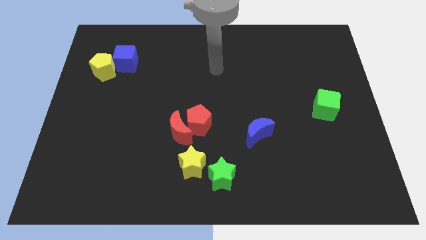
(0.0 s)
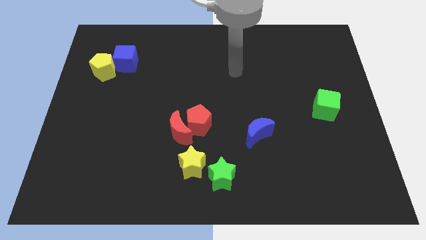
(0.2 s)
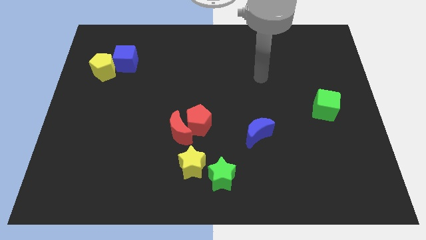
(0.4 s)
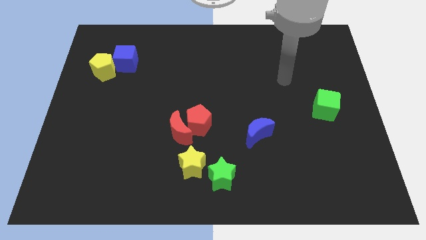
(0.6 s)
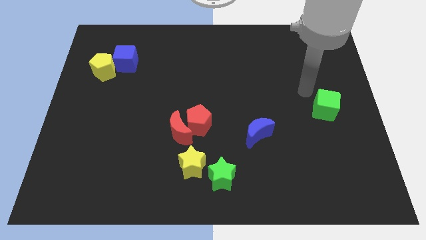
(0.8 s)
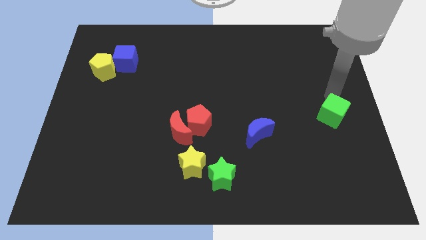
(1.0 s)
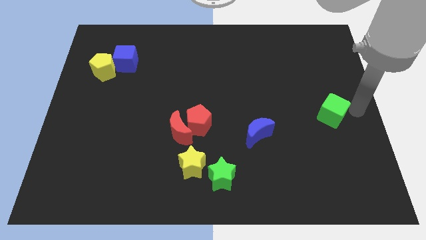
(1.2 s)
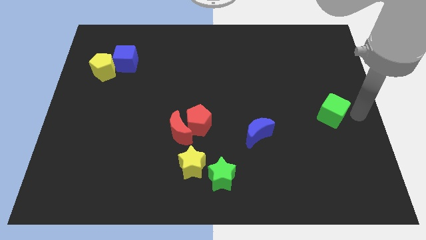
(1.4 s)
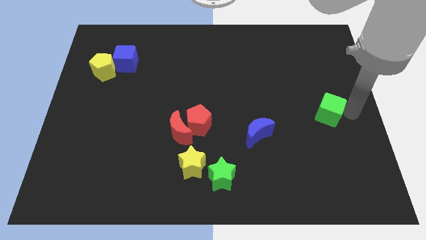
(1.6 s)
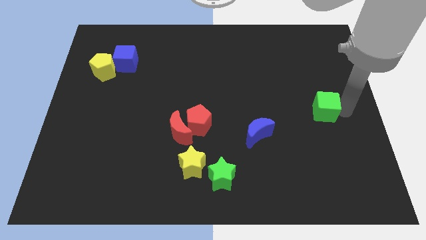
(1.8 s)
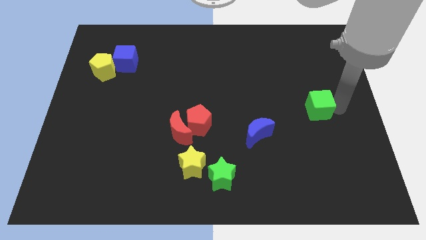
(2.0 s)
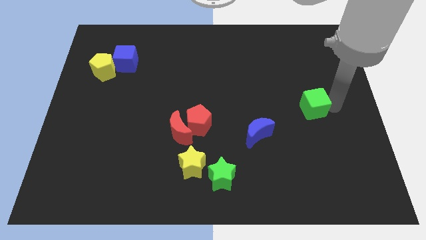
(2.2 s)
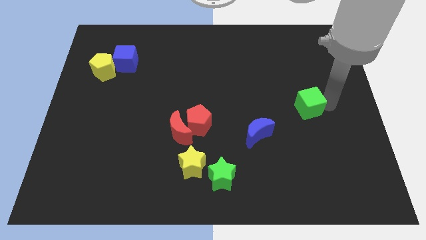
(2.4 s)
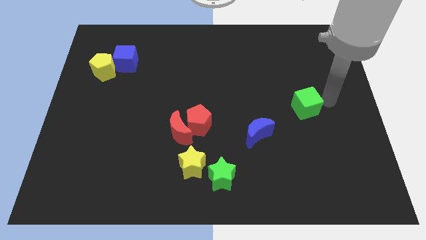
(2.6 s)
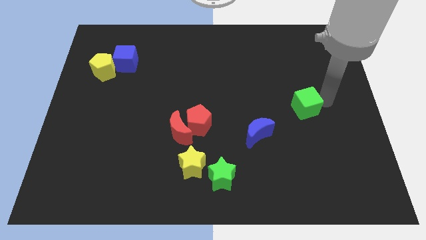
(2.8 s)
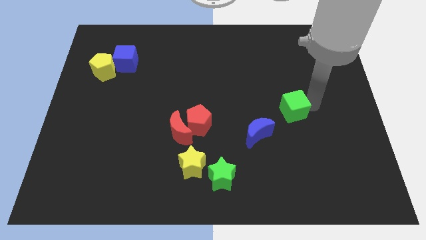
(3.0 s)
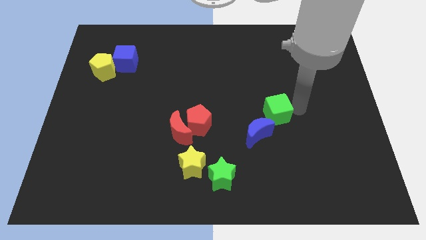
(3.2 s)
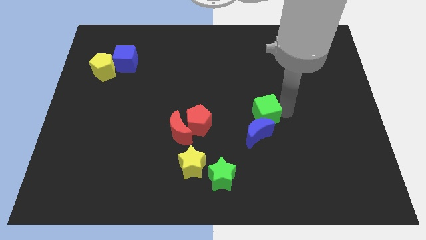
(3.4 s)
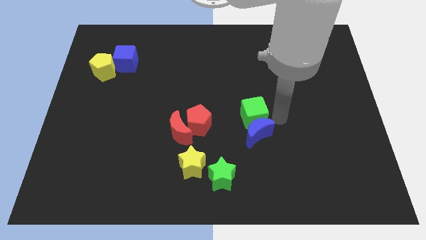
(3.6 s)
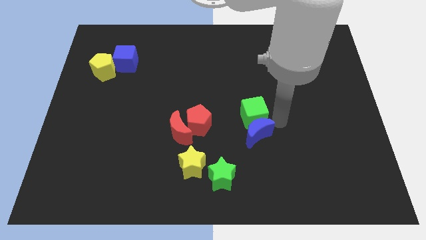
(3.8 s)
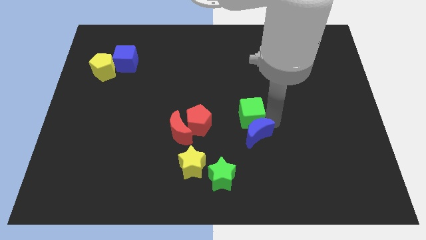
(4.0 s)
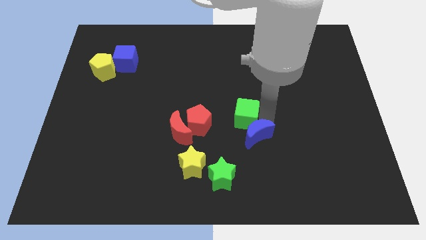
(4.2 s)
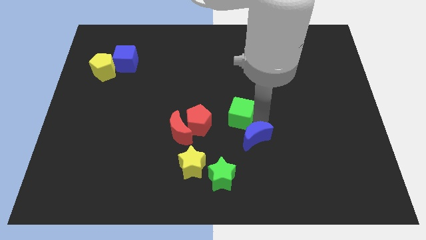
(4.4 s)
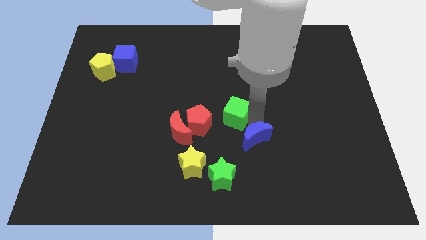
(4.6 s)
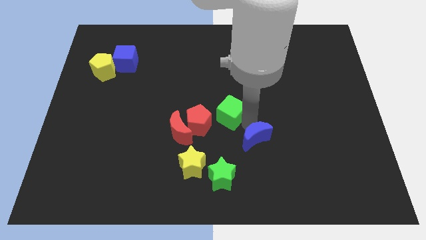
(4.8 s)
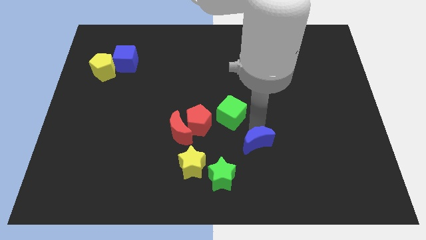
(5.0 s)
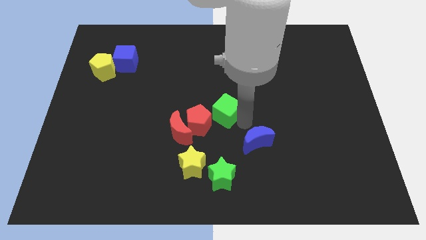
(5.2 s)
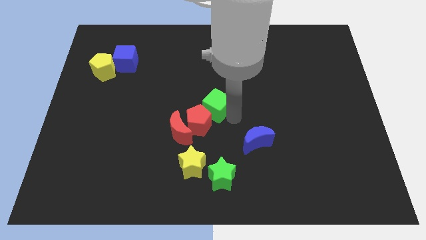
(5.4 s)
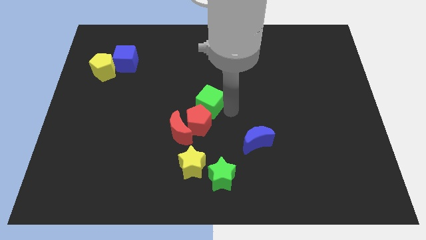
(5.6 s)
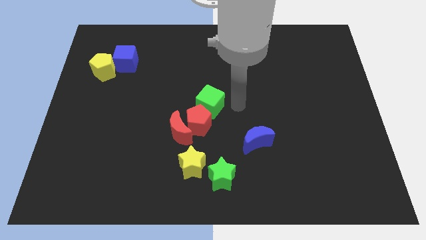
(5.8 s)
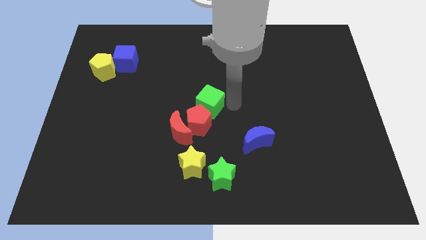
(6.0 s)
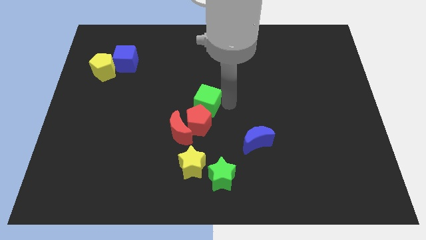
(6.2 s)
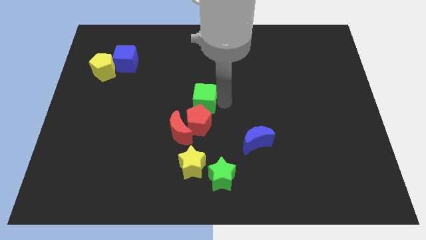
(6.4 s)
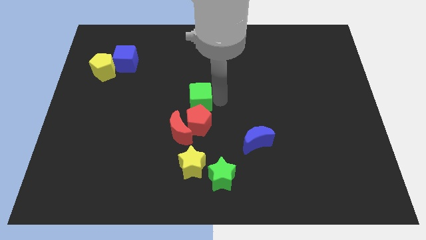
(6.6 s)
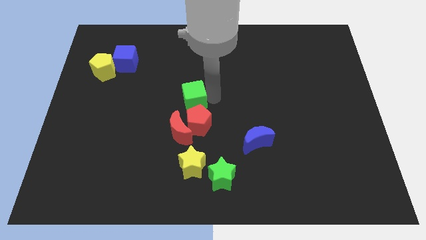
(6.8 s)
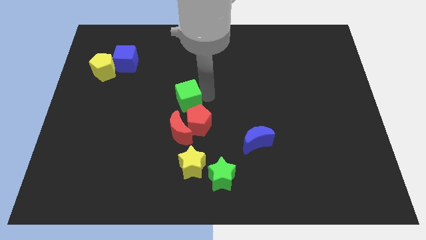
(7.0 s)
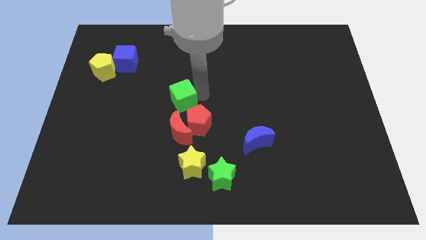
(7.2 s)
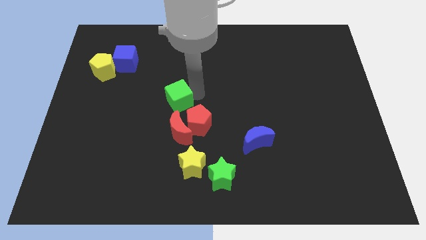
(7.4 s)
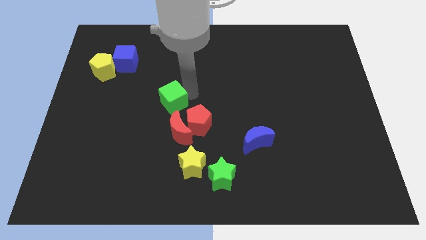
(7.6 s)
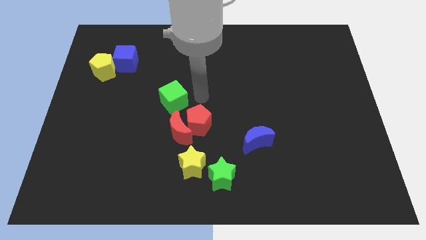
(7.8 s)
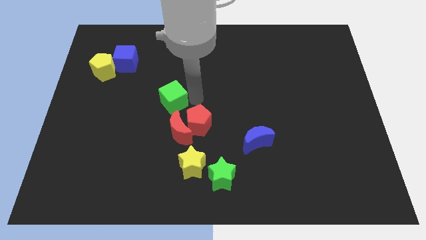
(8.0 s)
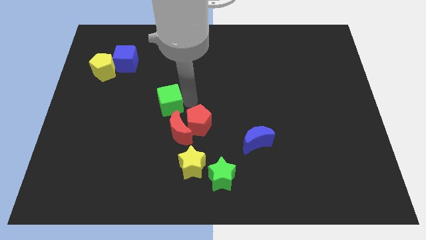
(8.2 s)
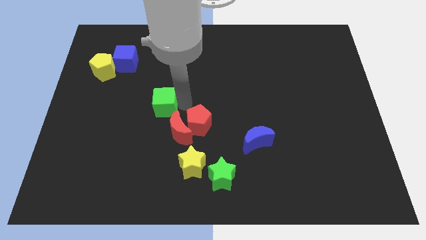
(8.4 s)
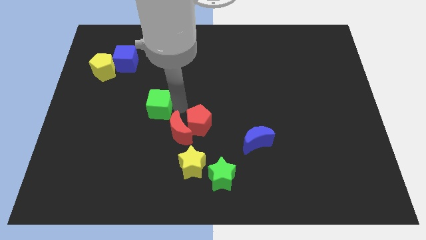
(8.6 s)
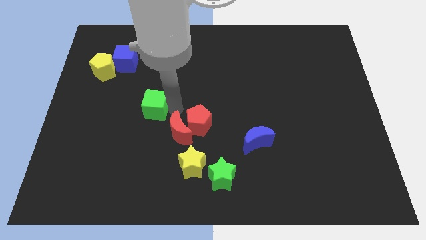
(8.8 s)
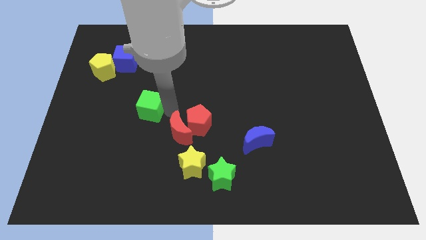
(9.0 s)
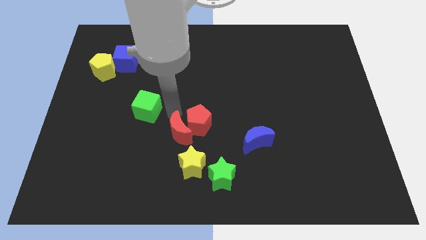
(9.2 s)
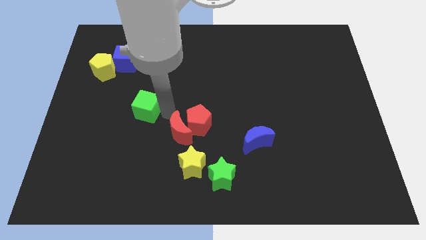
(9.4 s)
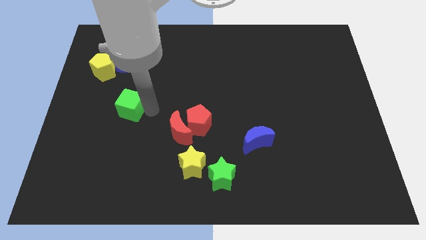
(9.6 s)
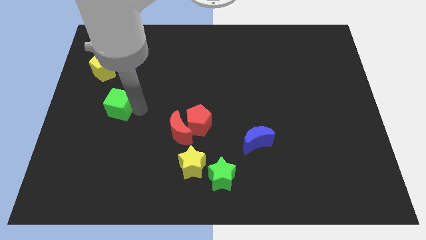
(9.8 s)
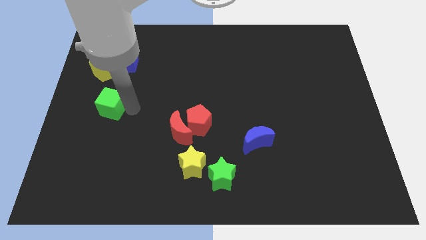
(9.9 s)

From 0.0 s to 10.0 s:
slide the green cube to the bottom of the yellow pentagon

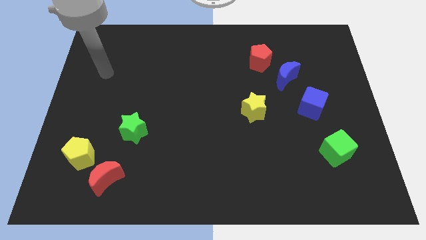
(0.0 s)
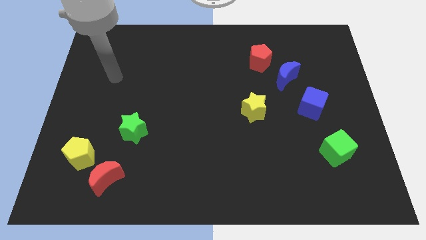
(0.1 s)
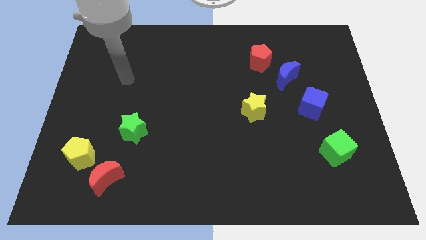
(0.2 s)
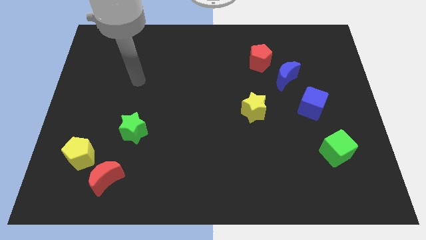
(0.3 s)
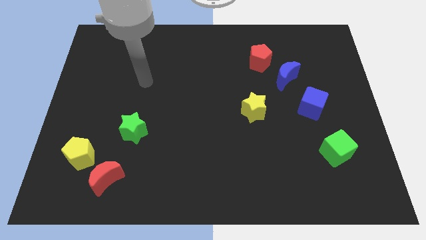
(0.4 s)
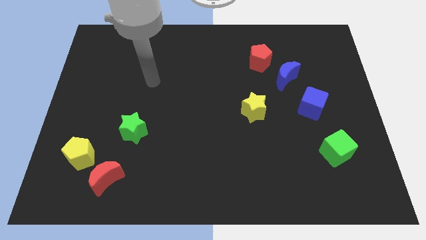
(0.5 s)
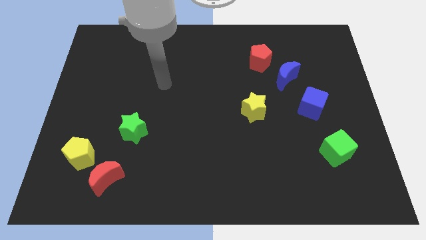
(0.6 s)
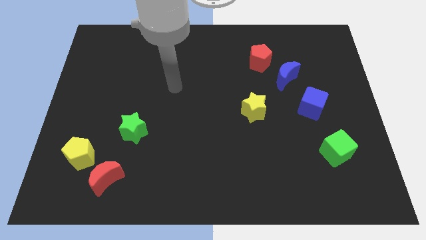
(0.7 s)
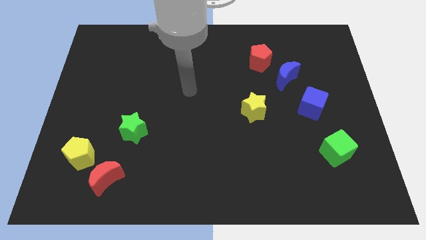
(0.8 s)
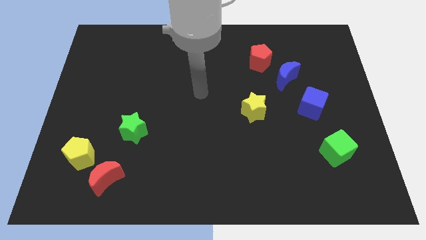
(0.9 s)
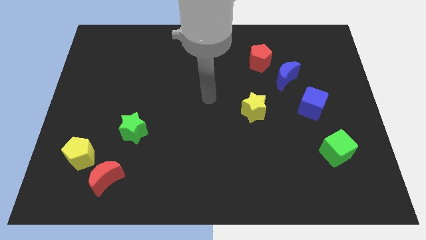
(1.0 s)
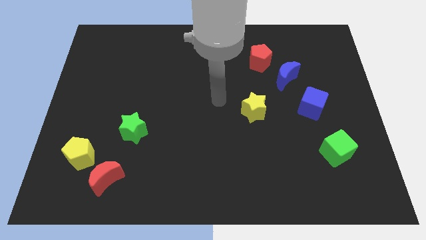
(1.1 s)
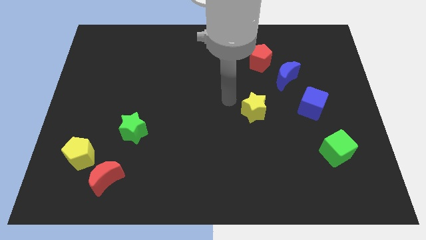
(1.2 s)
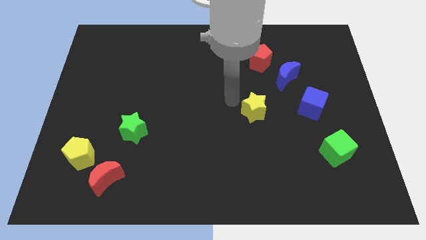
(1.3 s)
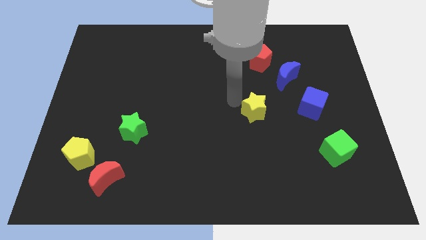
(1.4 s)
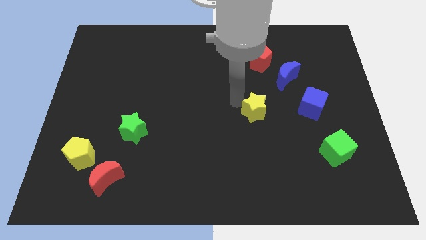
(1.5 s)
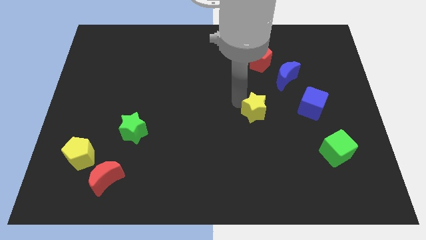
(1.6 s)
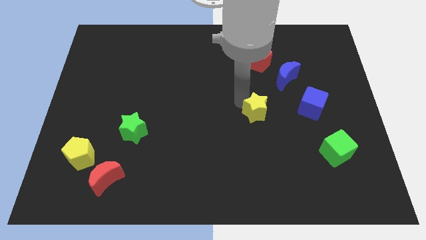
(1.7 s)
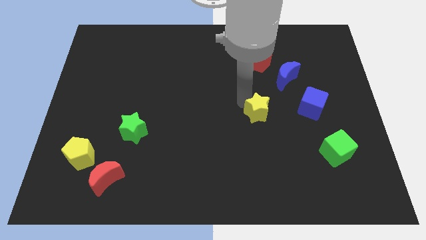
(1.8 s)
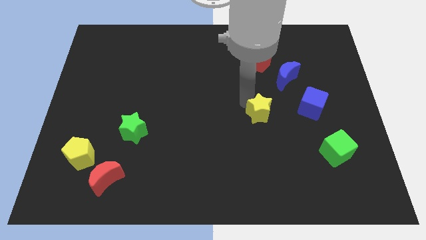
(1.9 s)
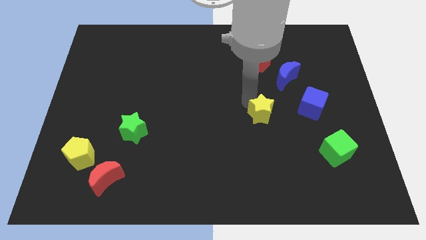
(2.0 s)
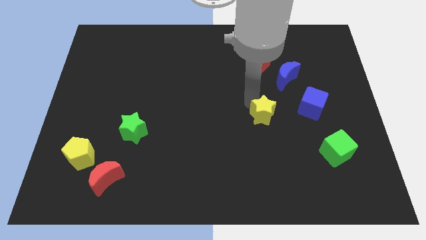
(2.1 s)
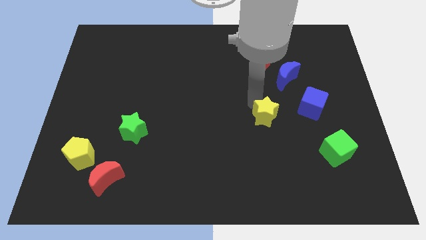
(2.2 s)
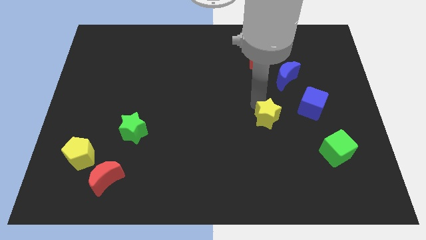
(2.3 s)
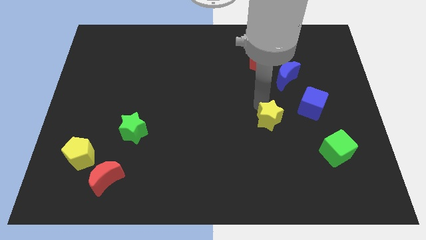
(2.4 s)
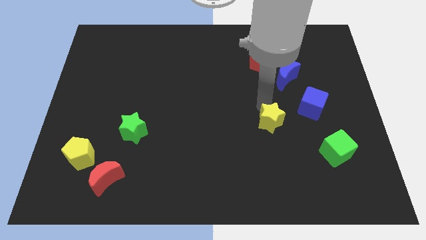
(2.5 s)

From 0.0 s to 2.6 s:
slide the yellow star diagonally down and to the left of the blue cube
